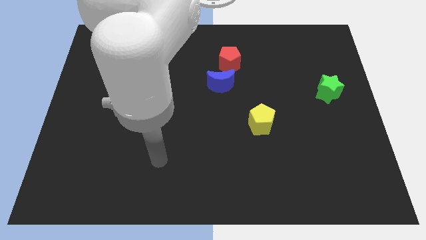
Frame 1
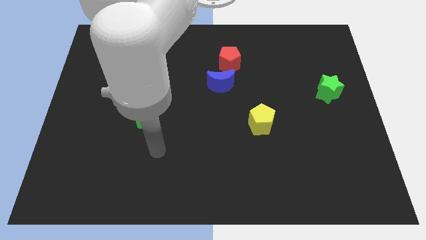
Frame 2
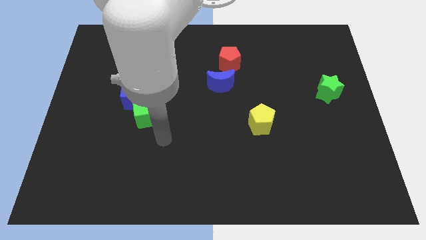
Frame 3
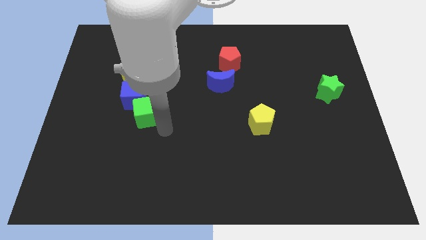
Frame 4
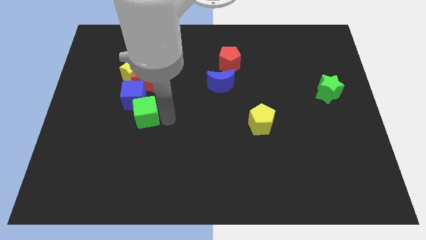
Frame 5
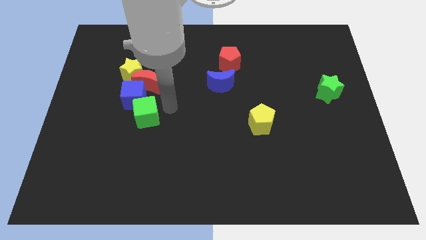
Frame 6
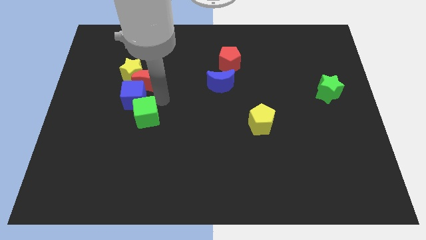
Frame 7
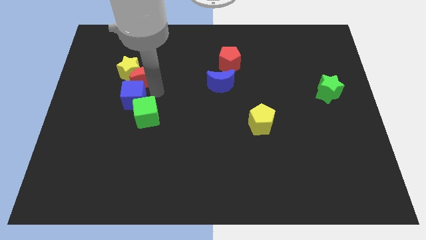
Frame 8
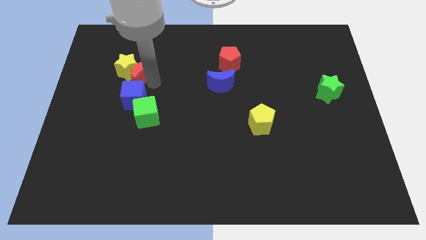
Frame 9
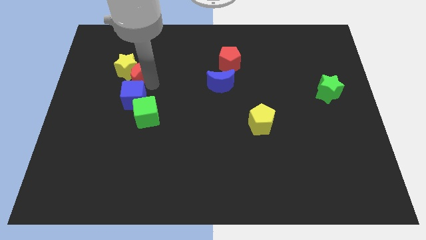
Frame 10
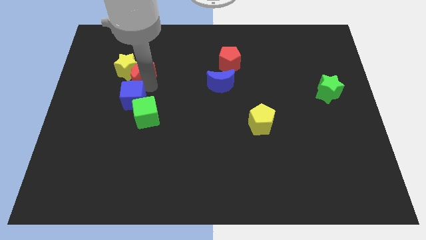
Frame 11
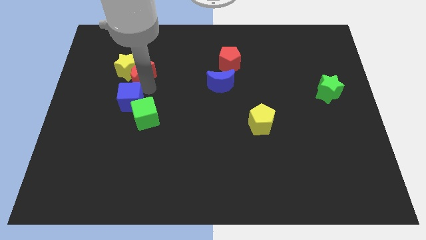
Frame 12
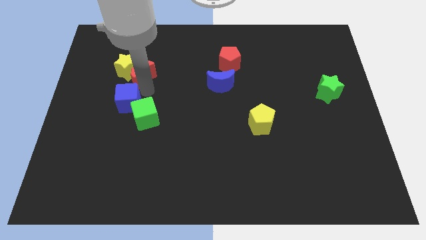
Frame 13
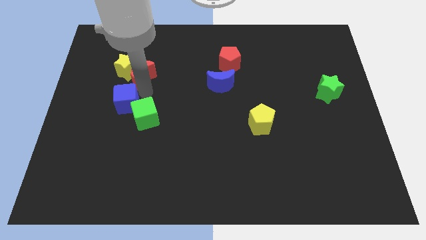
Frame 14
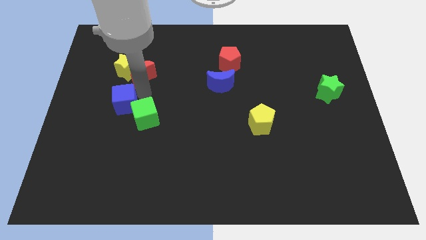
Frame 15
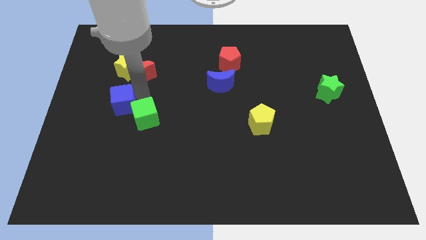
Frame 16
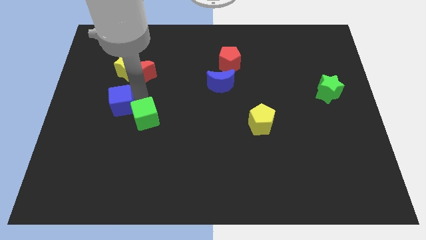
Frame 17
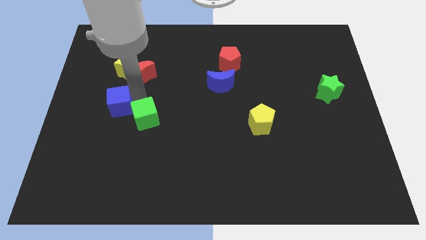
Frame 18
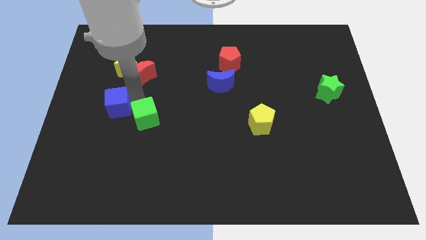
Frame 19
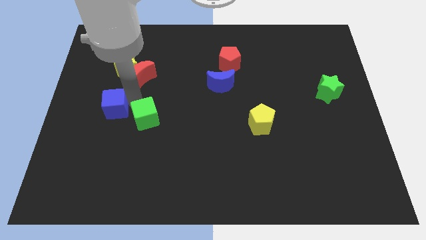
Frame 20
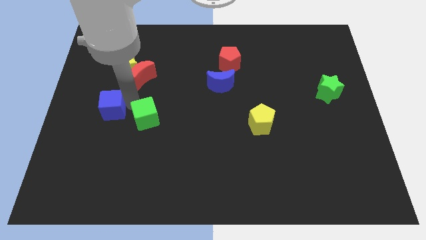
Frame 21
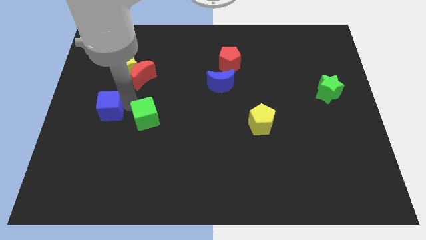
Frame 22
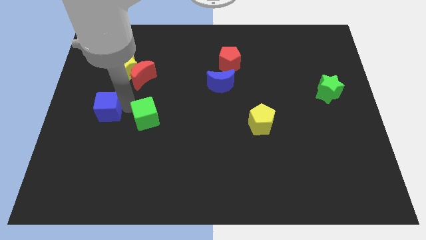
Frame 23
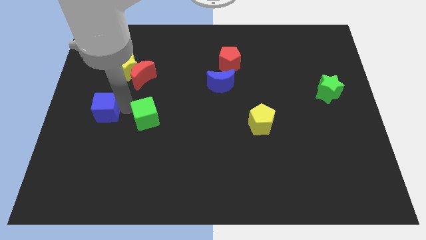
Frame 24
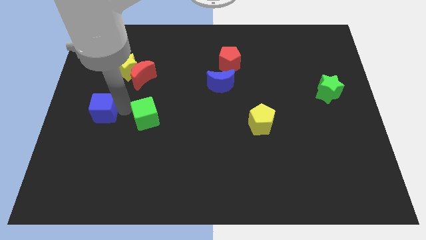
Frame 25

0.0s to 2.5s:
separate the blue cube from the red moon, green cube, and yellow star

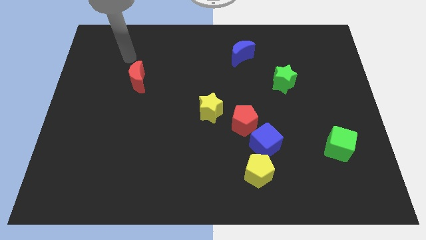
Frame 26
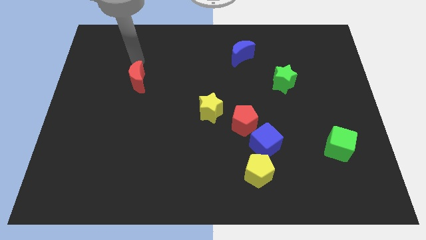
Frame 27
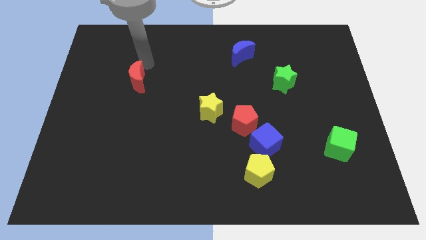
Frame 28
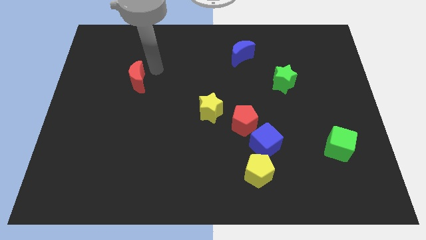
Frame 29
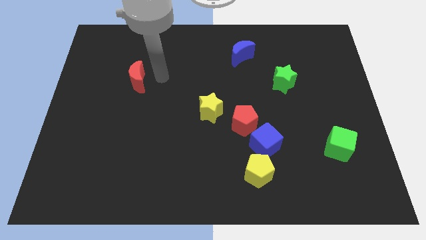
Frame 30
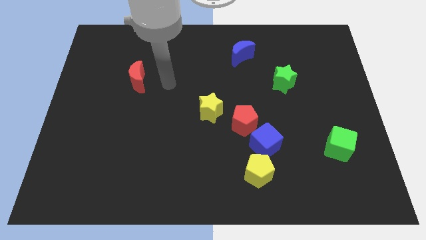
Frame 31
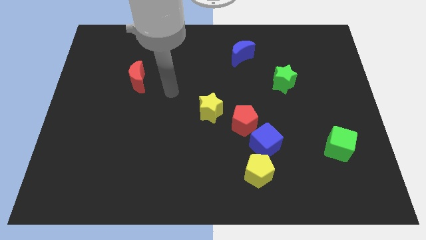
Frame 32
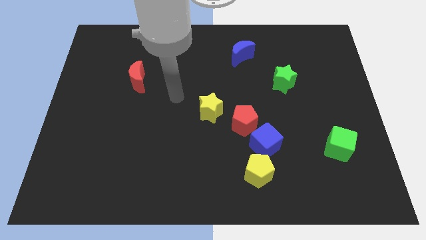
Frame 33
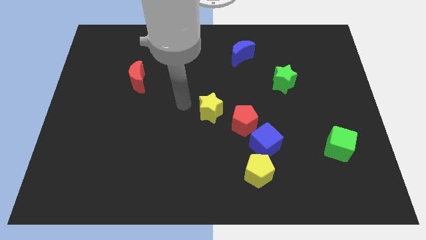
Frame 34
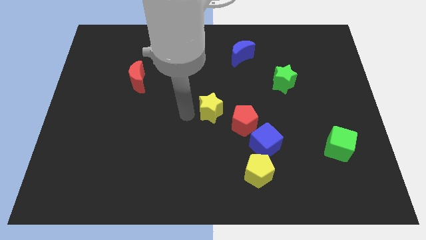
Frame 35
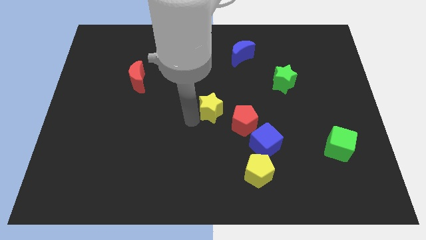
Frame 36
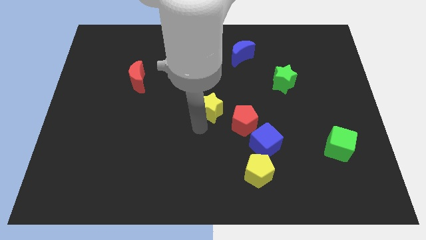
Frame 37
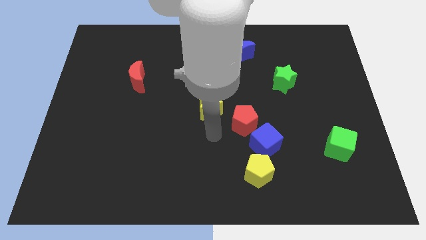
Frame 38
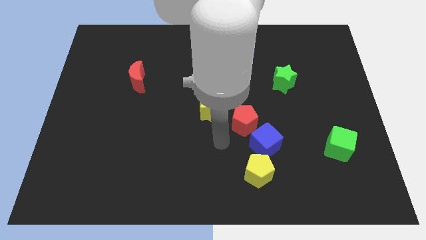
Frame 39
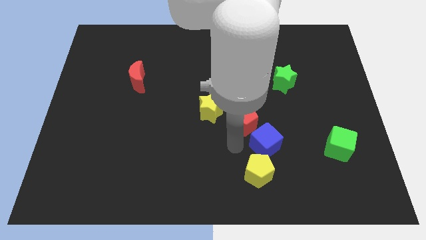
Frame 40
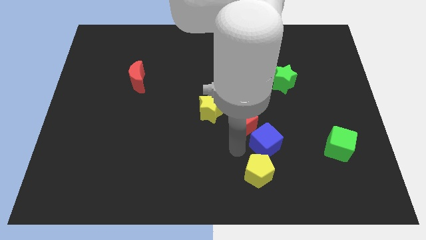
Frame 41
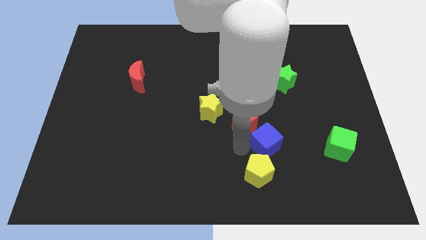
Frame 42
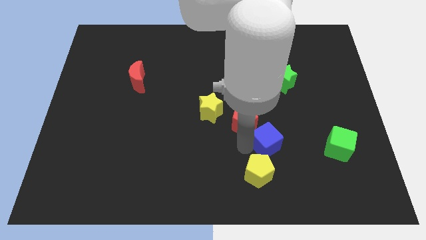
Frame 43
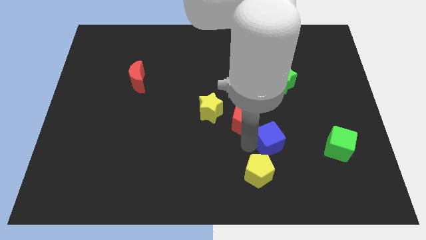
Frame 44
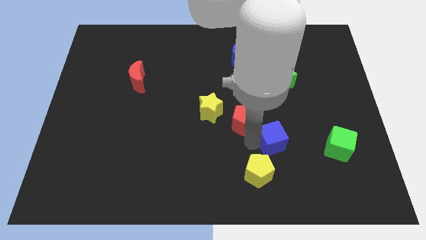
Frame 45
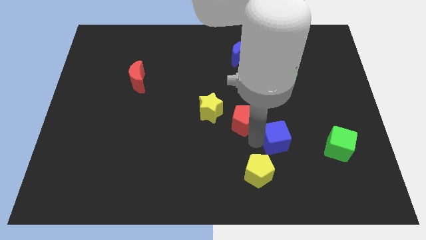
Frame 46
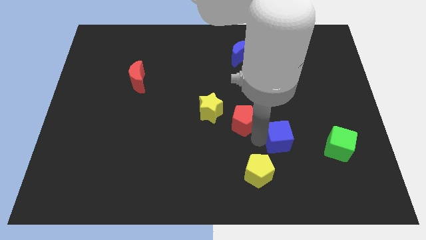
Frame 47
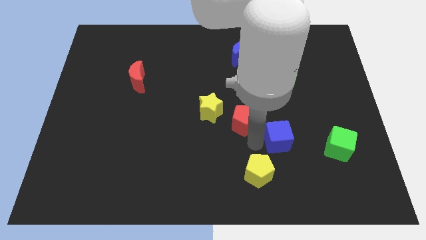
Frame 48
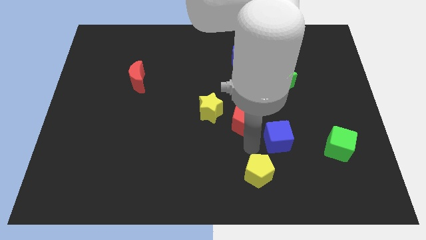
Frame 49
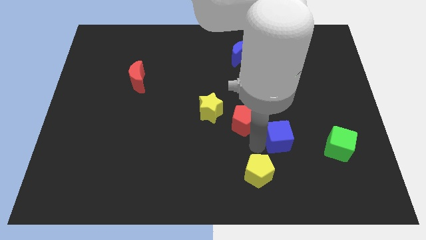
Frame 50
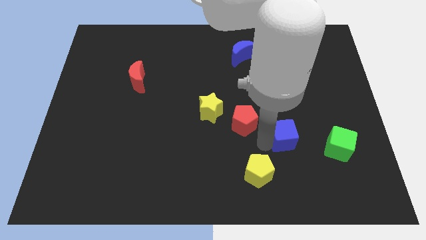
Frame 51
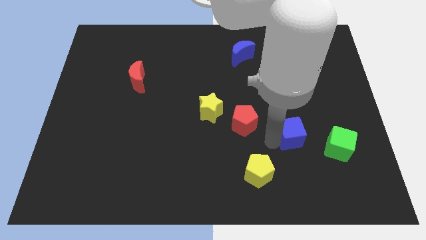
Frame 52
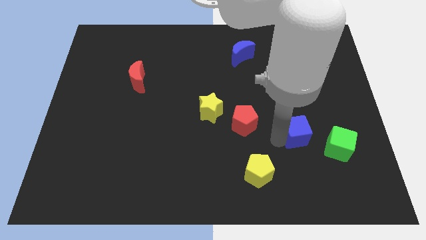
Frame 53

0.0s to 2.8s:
separate the blue cube from the red pentagon and yellow pentagon

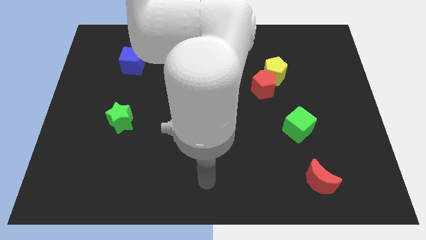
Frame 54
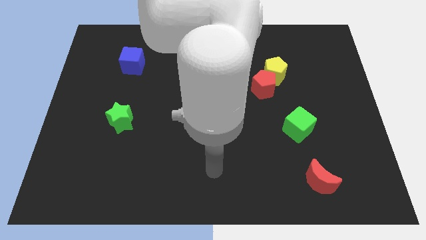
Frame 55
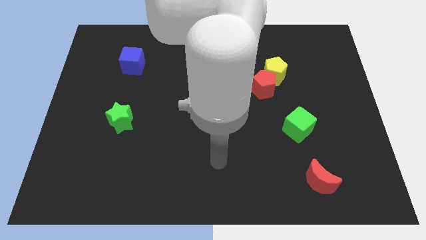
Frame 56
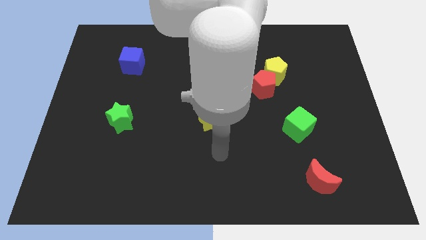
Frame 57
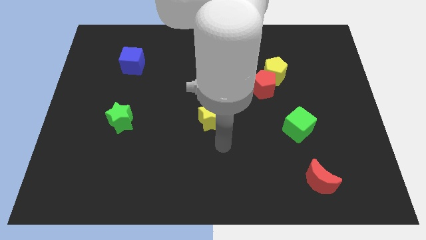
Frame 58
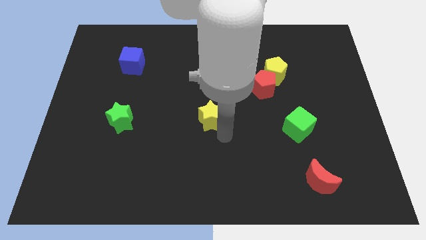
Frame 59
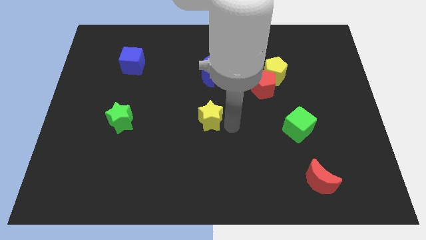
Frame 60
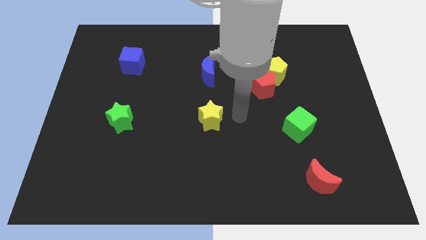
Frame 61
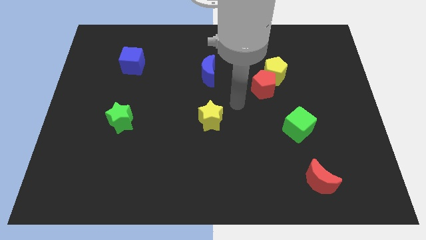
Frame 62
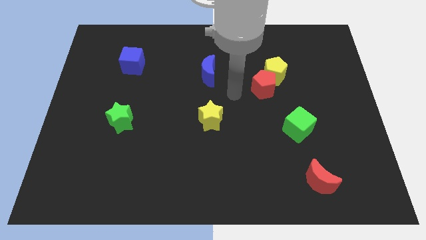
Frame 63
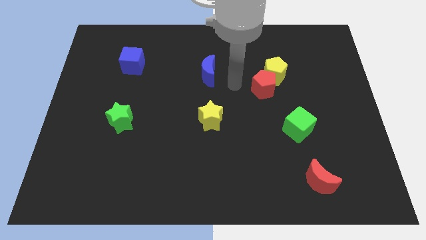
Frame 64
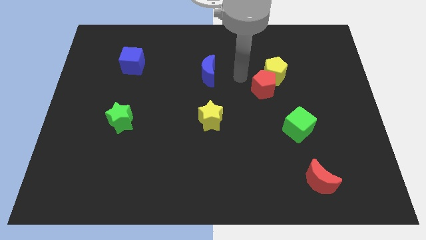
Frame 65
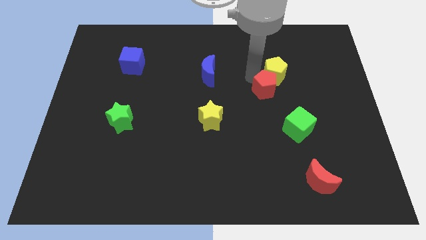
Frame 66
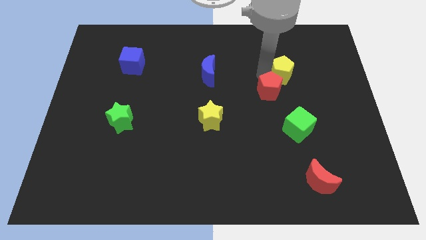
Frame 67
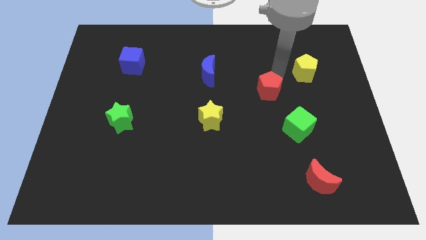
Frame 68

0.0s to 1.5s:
separate the red pentagon from the yellow pentagon

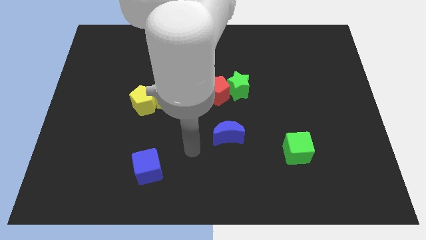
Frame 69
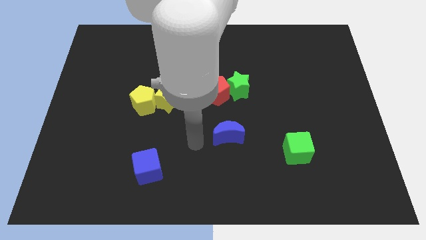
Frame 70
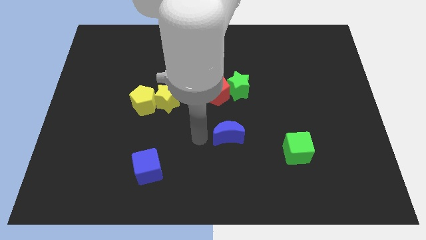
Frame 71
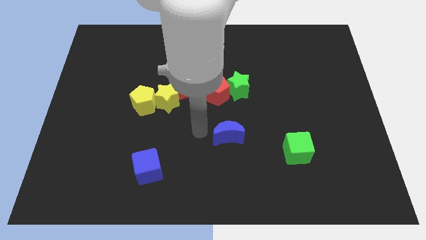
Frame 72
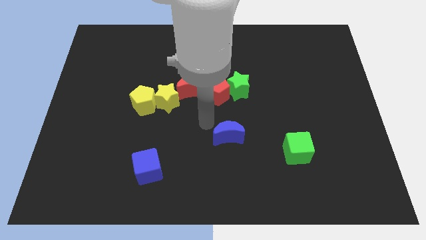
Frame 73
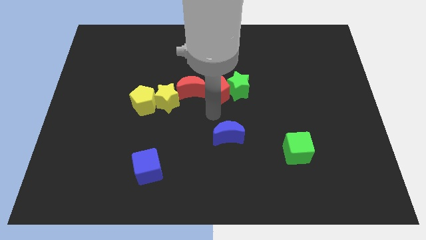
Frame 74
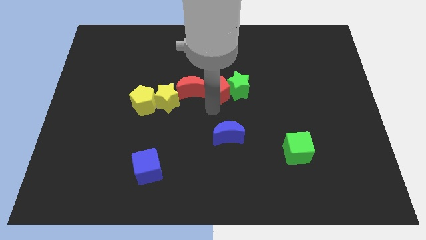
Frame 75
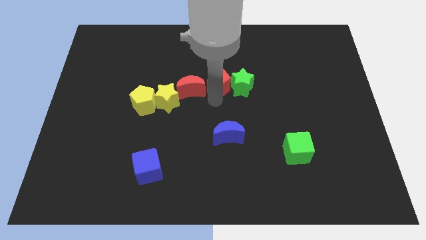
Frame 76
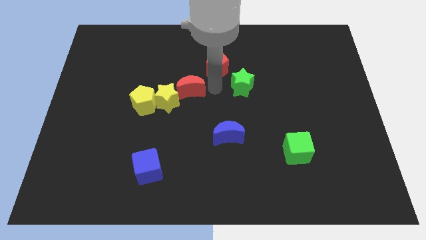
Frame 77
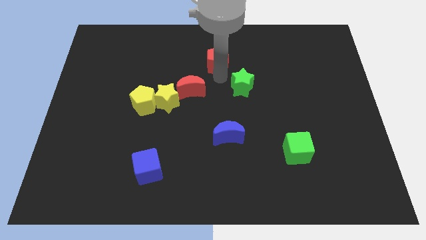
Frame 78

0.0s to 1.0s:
separate the green star from the red pentagon

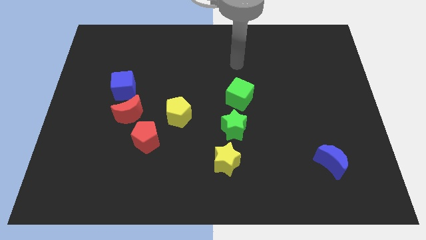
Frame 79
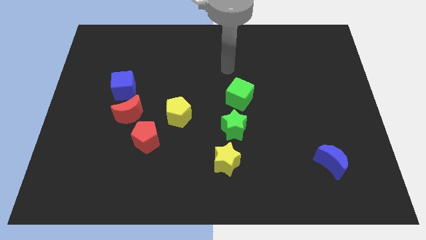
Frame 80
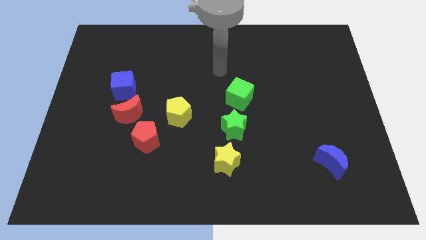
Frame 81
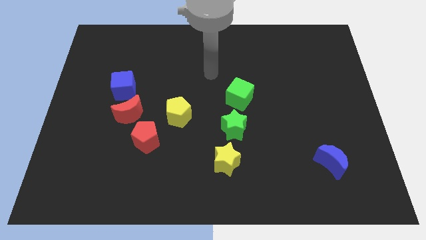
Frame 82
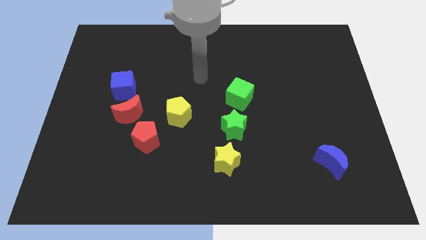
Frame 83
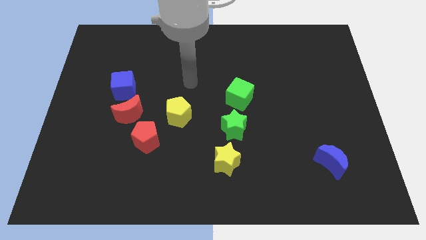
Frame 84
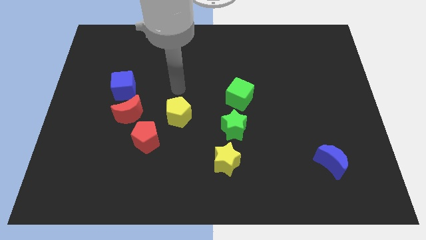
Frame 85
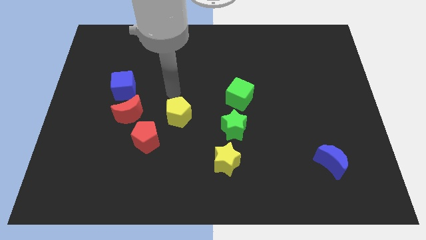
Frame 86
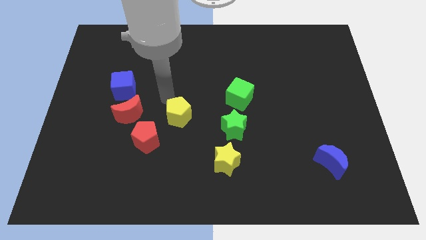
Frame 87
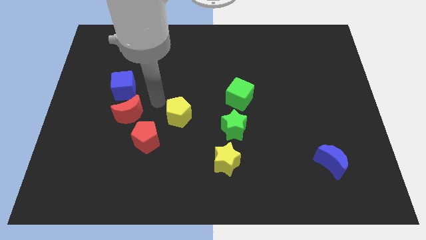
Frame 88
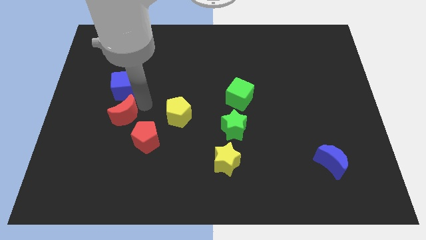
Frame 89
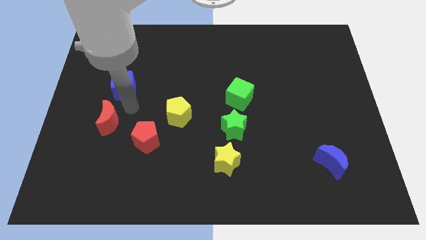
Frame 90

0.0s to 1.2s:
move the blue cube away from the red moon

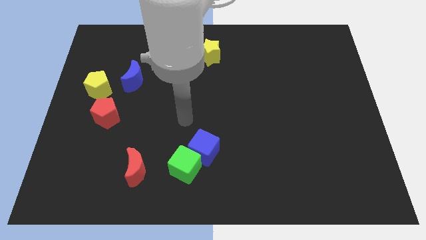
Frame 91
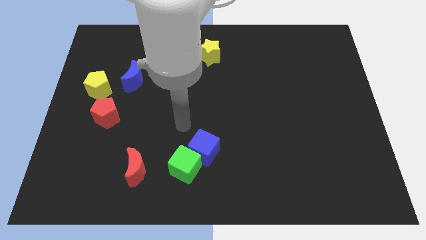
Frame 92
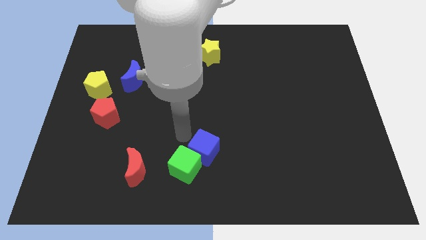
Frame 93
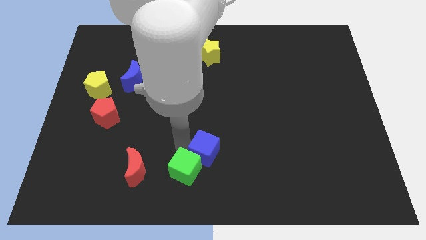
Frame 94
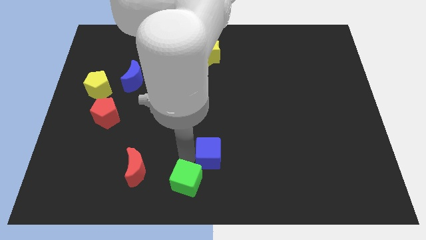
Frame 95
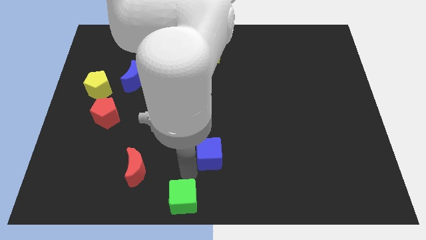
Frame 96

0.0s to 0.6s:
separate the blue cube from the green cube
